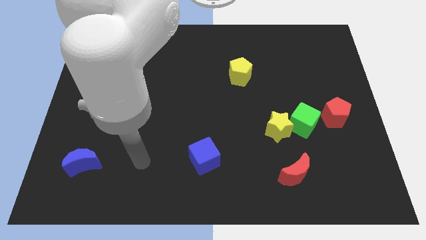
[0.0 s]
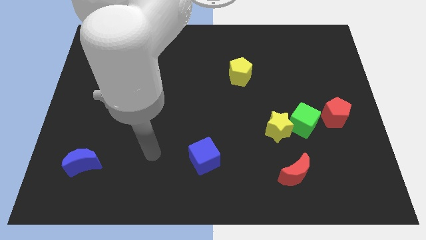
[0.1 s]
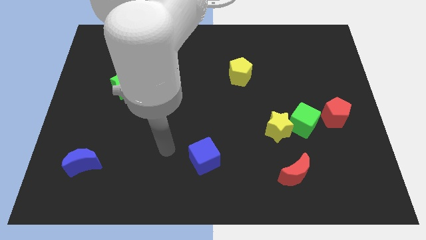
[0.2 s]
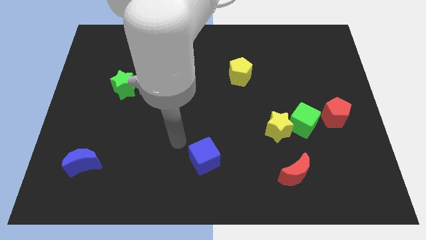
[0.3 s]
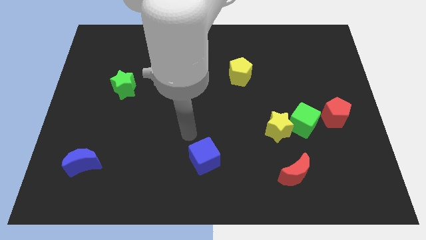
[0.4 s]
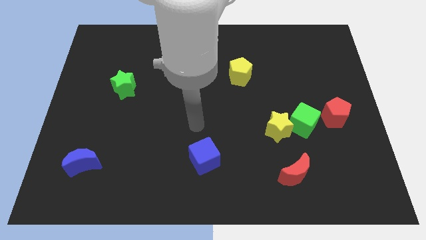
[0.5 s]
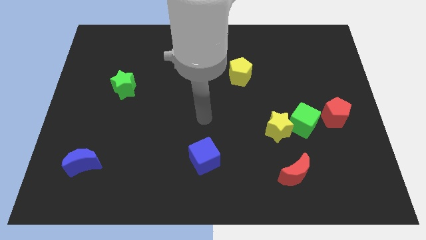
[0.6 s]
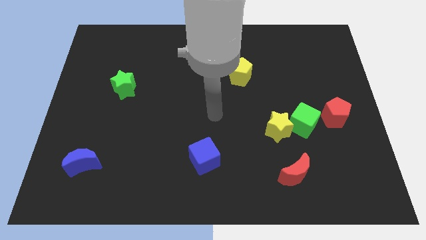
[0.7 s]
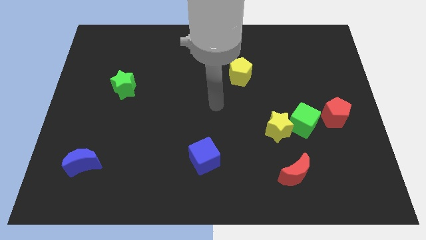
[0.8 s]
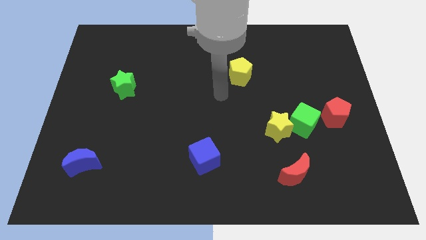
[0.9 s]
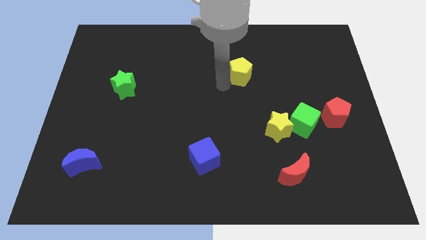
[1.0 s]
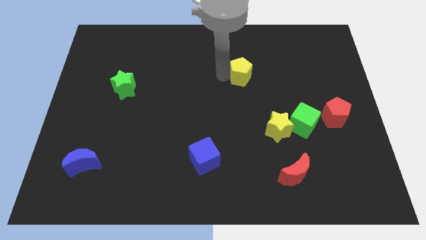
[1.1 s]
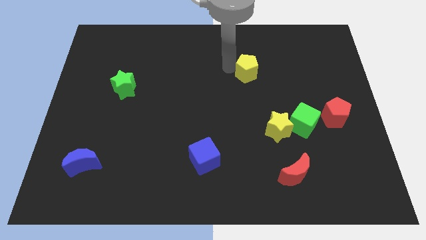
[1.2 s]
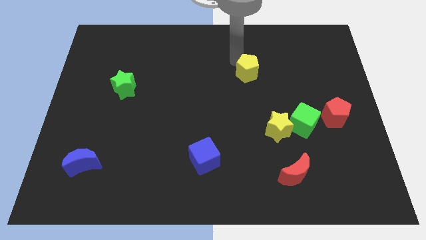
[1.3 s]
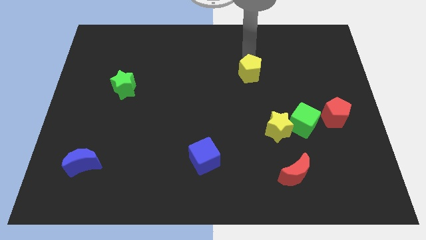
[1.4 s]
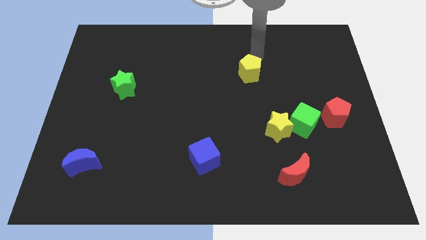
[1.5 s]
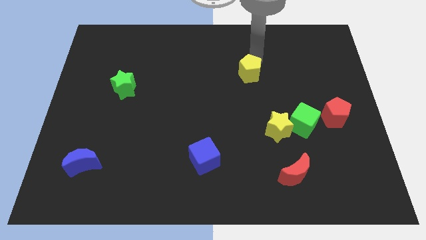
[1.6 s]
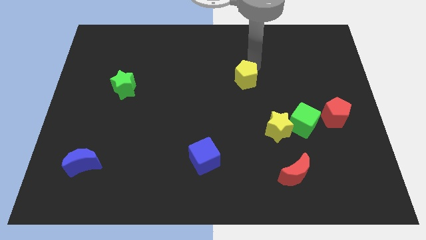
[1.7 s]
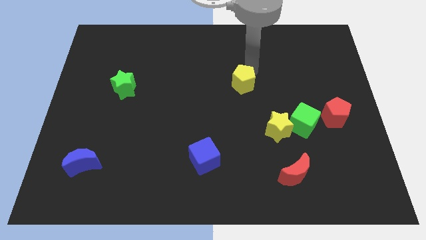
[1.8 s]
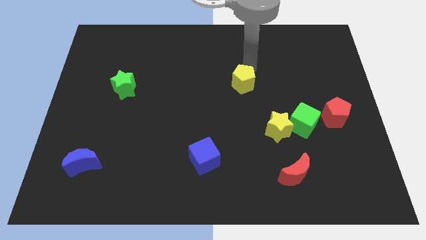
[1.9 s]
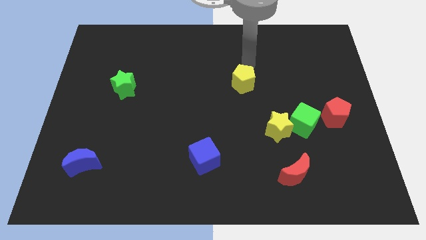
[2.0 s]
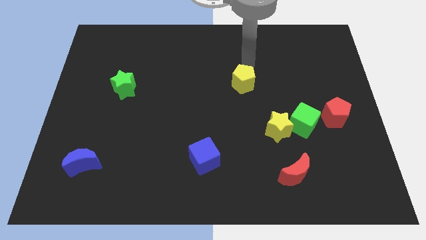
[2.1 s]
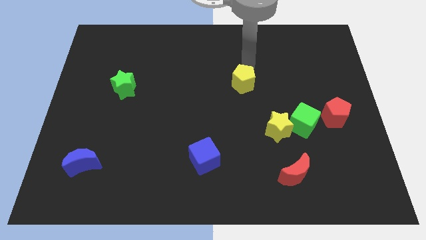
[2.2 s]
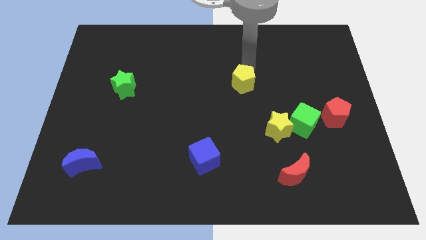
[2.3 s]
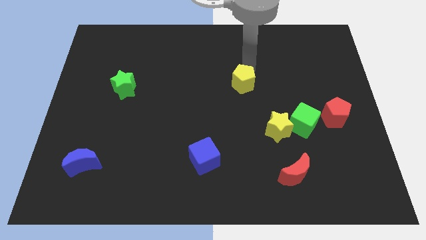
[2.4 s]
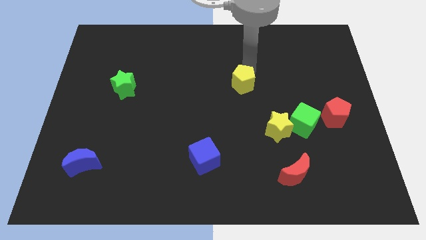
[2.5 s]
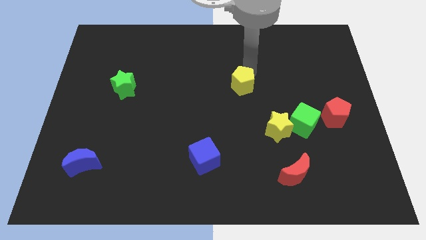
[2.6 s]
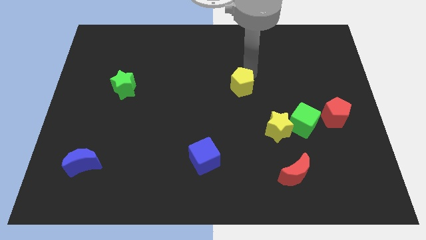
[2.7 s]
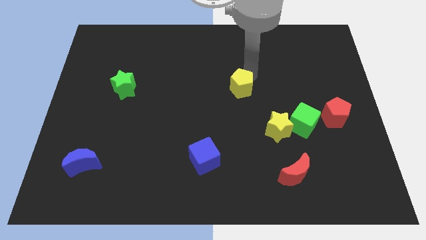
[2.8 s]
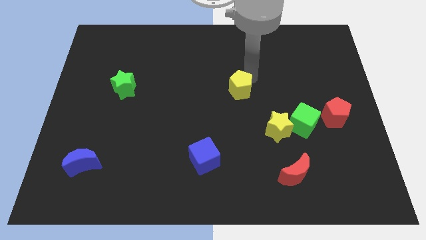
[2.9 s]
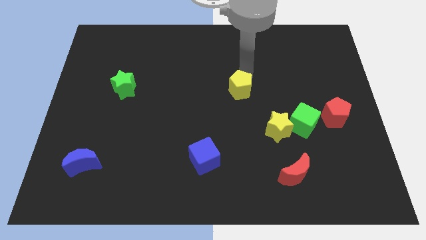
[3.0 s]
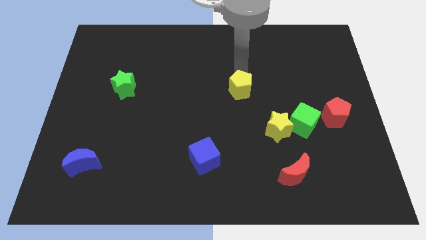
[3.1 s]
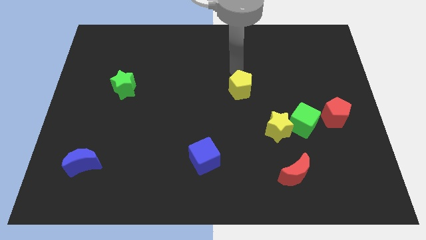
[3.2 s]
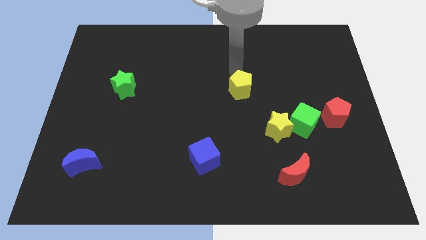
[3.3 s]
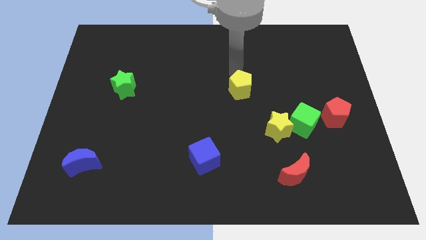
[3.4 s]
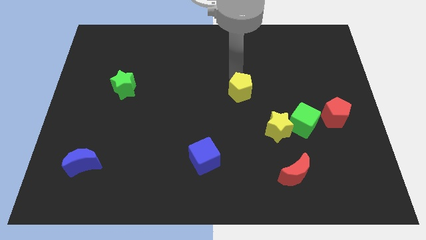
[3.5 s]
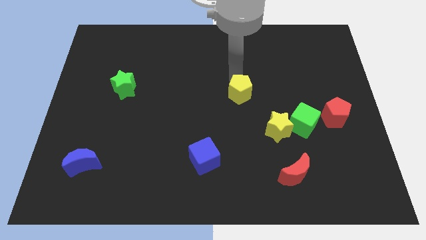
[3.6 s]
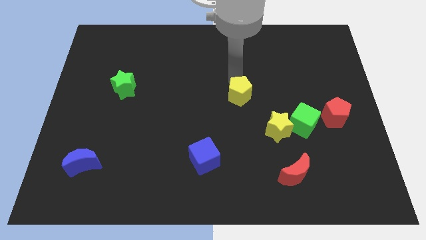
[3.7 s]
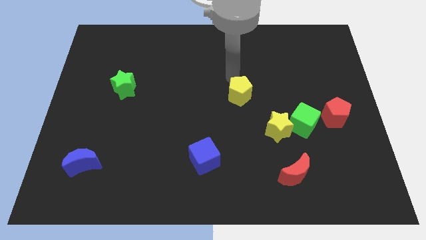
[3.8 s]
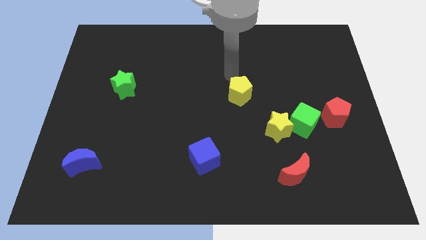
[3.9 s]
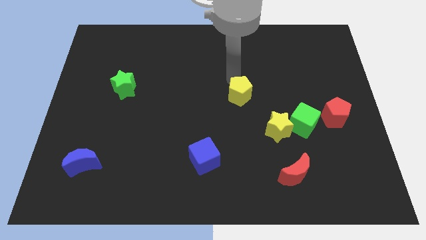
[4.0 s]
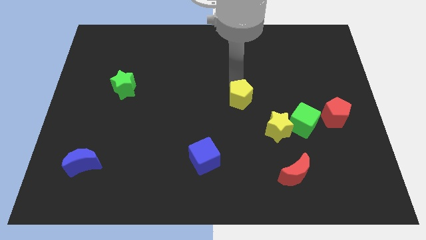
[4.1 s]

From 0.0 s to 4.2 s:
slightly slide the yellow pentagon down

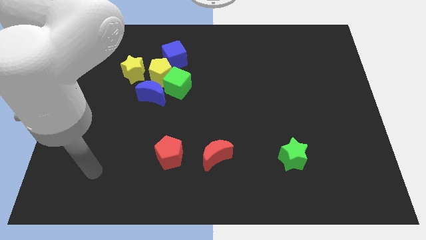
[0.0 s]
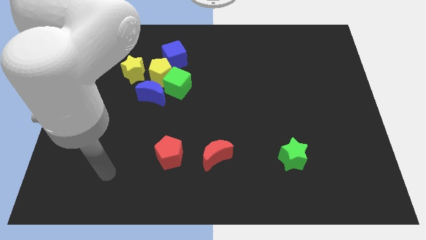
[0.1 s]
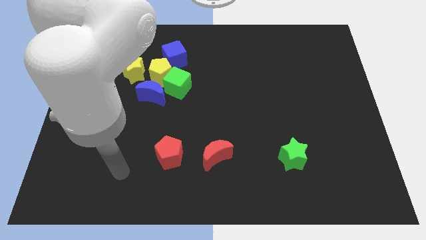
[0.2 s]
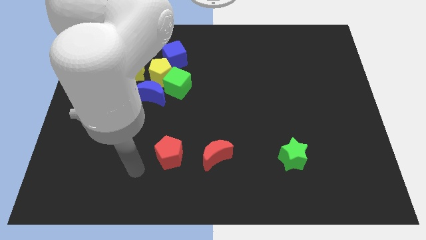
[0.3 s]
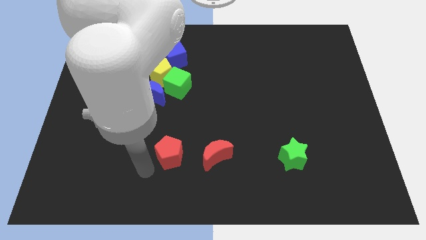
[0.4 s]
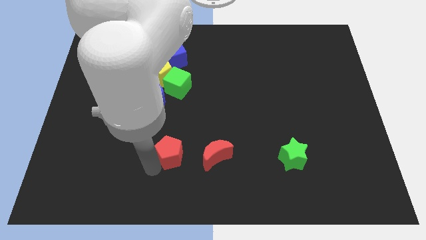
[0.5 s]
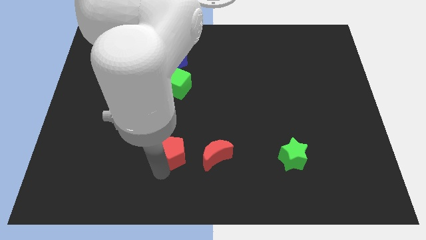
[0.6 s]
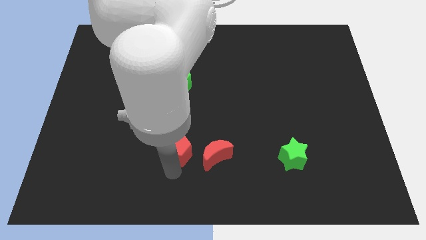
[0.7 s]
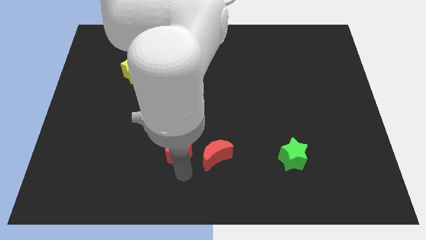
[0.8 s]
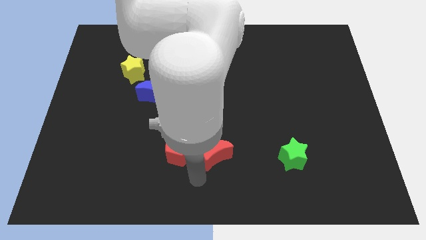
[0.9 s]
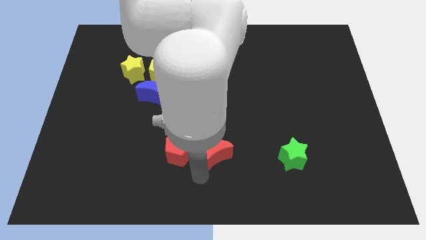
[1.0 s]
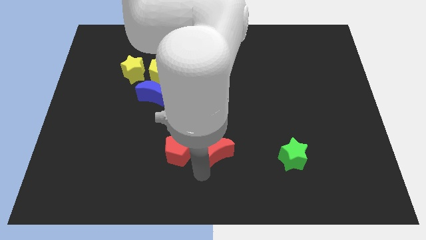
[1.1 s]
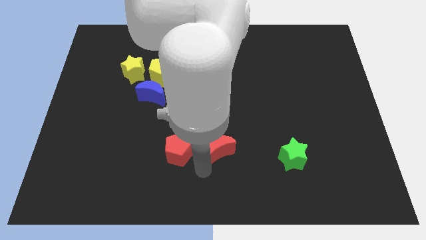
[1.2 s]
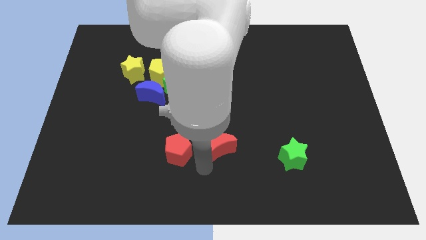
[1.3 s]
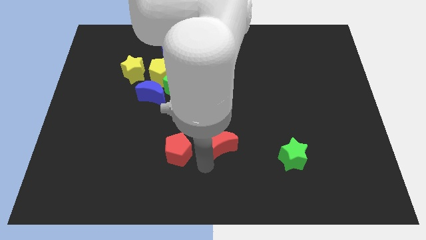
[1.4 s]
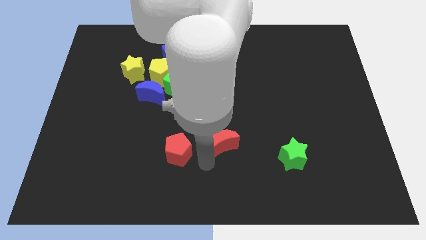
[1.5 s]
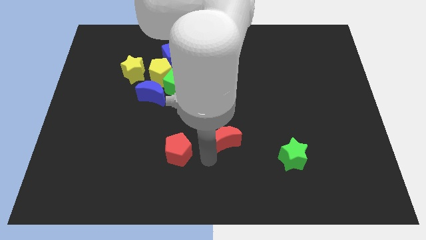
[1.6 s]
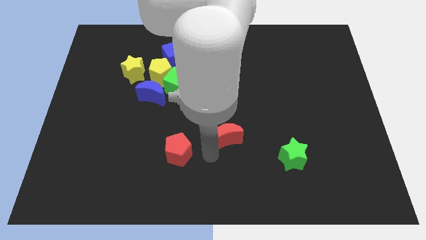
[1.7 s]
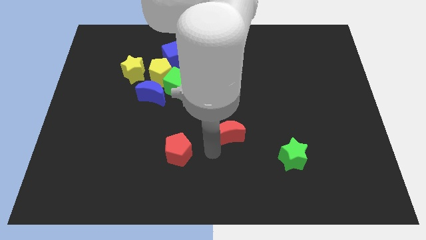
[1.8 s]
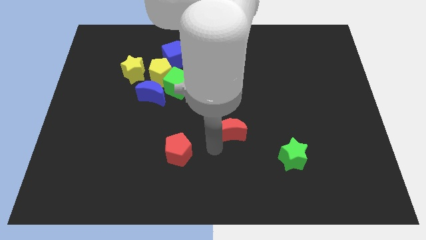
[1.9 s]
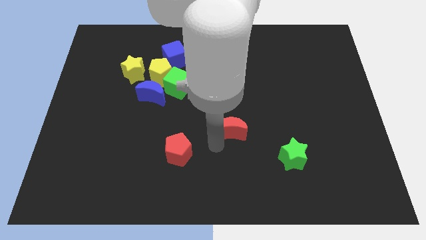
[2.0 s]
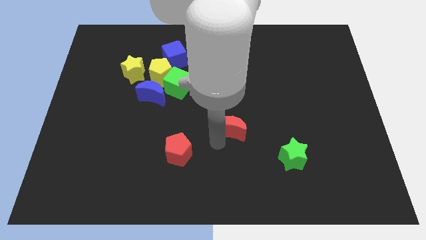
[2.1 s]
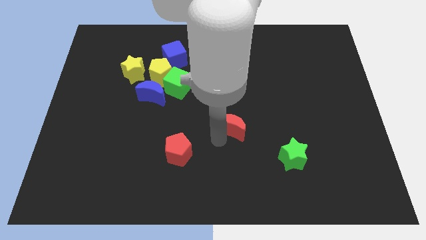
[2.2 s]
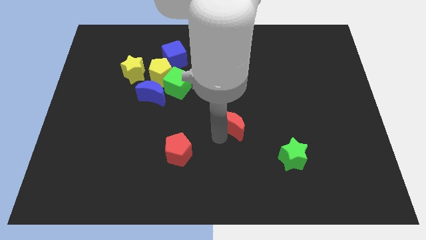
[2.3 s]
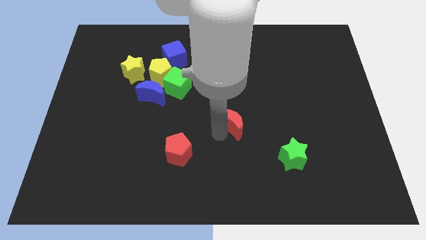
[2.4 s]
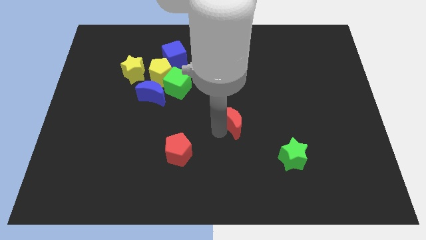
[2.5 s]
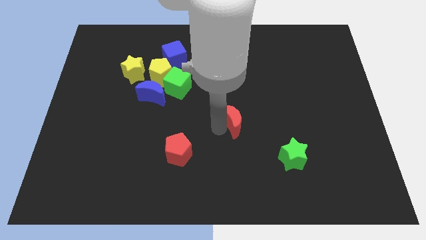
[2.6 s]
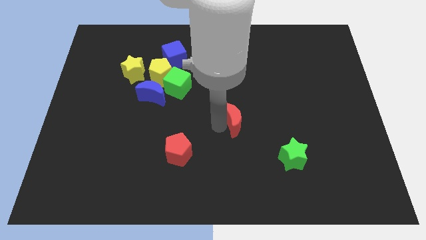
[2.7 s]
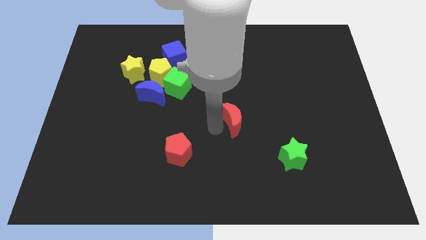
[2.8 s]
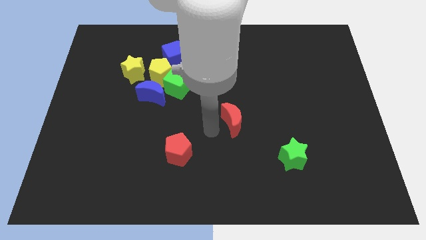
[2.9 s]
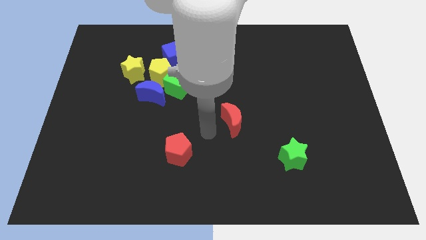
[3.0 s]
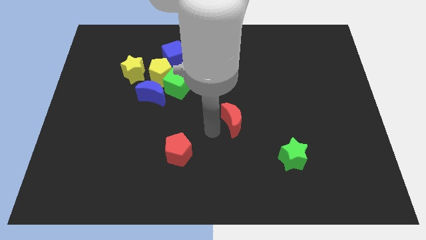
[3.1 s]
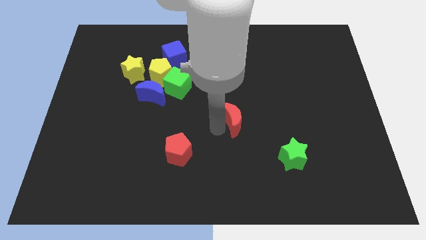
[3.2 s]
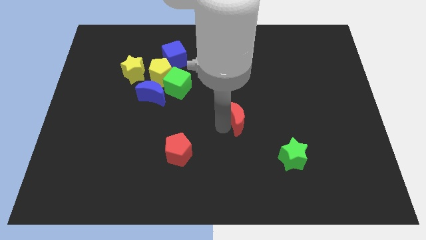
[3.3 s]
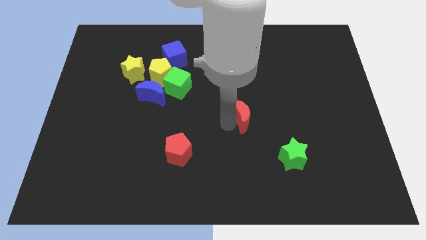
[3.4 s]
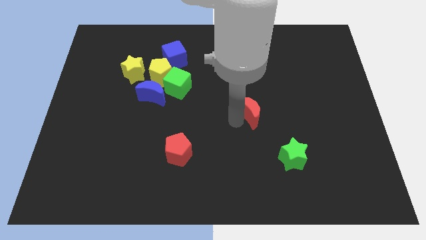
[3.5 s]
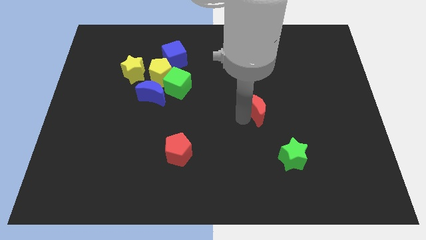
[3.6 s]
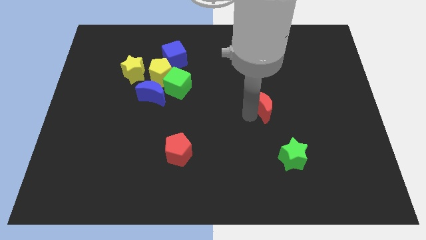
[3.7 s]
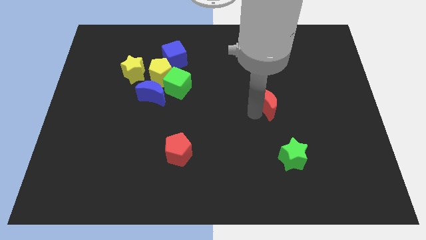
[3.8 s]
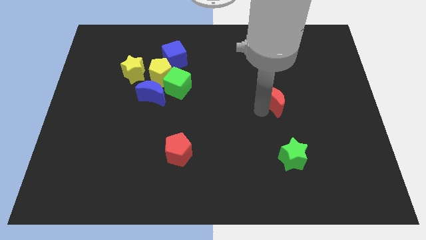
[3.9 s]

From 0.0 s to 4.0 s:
move the red moon up and then to the right
